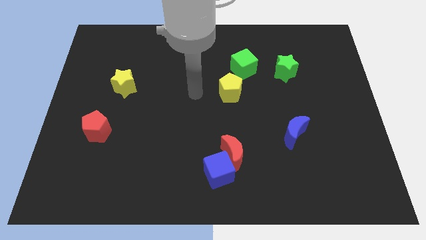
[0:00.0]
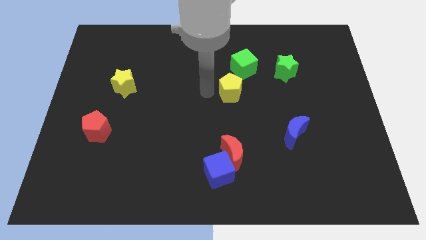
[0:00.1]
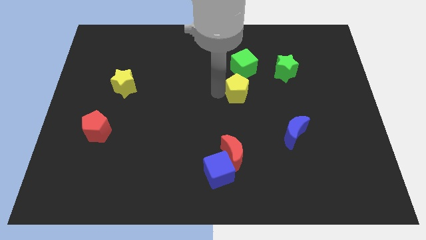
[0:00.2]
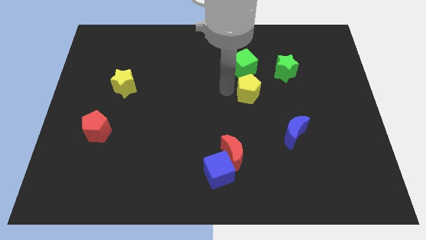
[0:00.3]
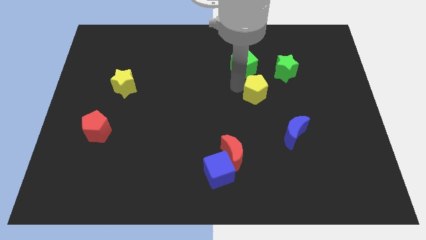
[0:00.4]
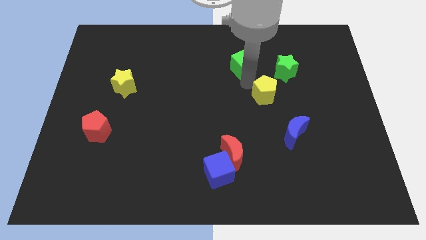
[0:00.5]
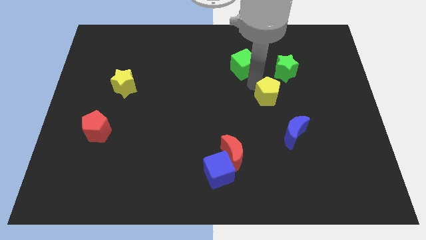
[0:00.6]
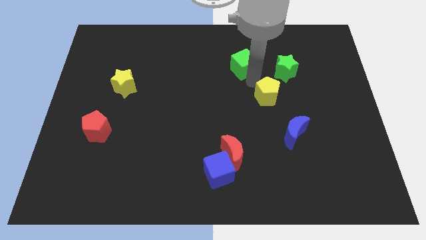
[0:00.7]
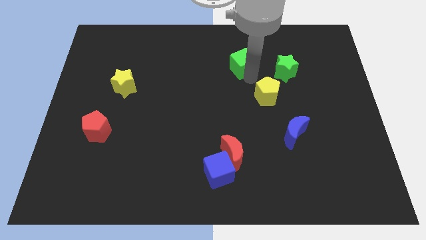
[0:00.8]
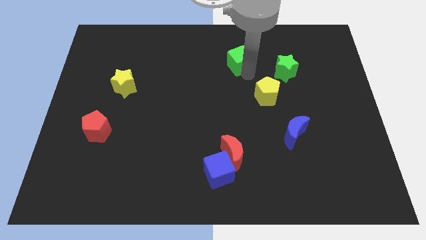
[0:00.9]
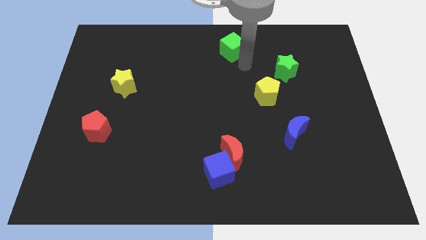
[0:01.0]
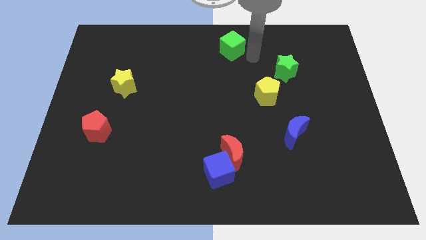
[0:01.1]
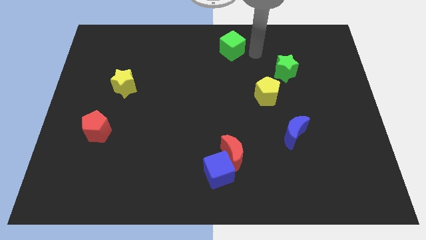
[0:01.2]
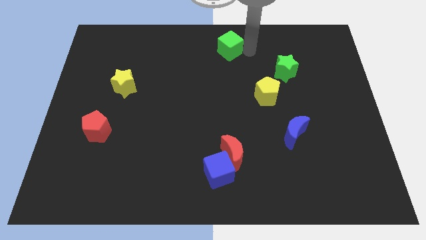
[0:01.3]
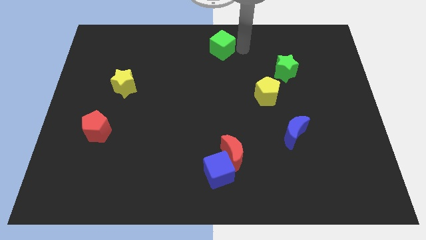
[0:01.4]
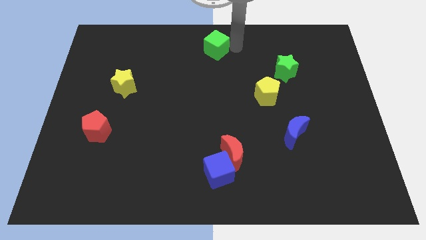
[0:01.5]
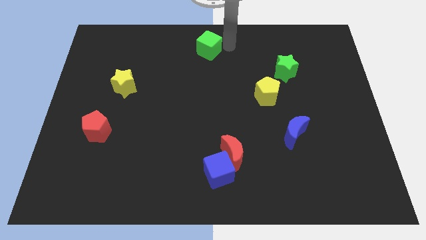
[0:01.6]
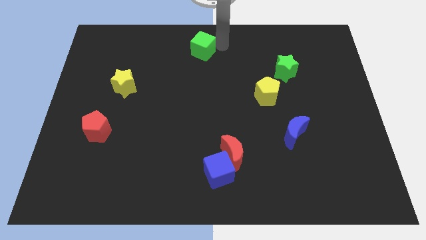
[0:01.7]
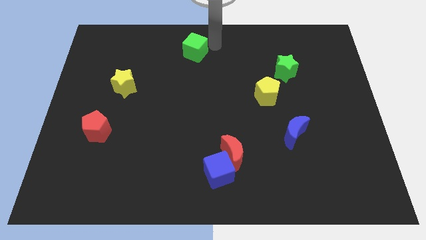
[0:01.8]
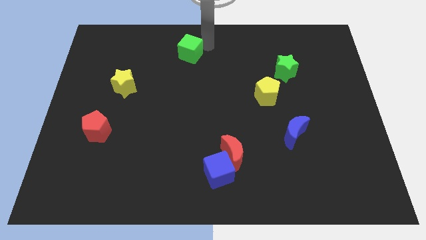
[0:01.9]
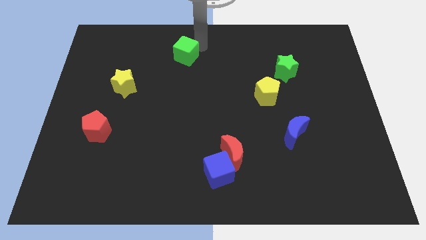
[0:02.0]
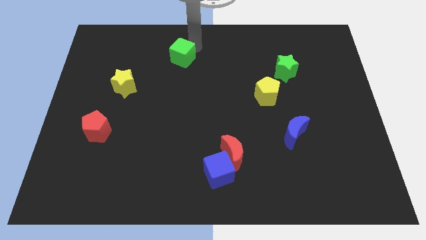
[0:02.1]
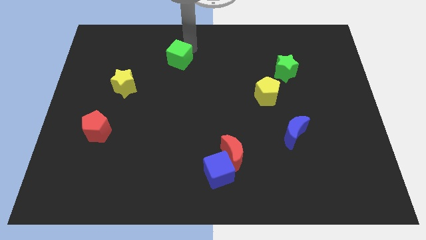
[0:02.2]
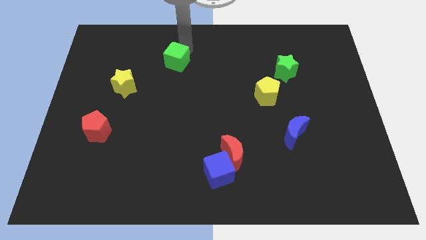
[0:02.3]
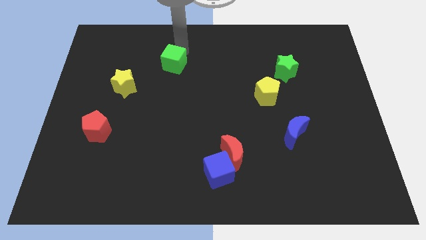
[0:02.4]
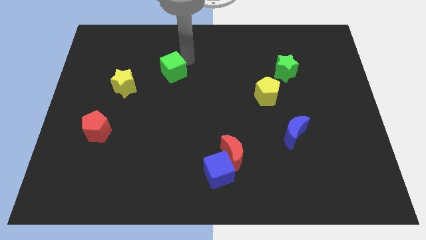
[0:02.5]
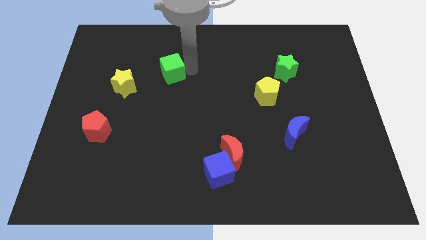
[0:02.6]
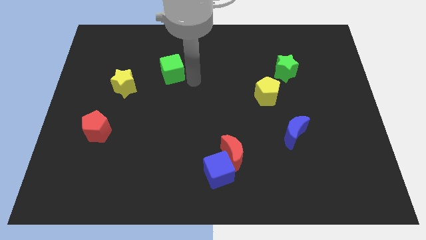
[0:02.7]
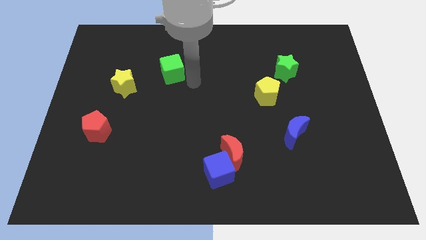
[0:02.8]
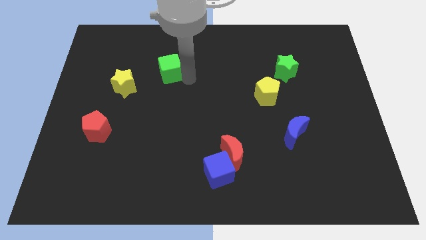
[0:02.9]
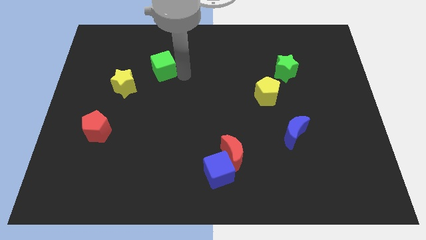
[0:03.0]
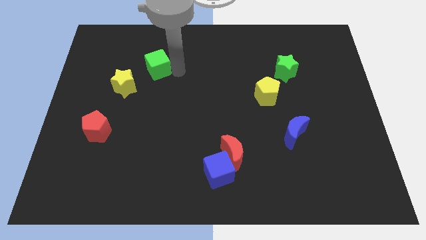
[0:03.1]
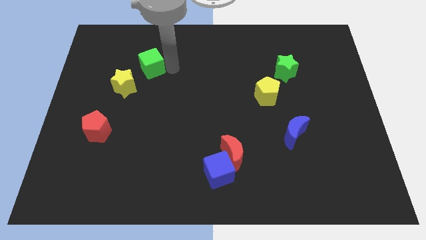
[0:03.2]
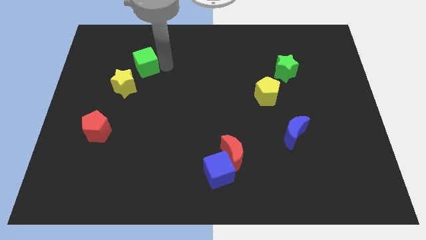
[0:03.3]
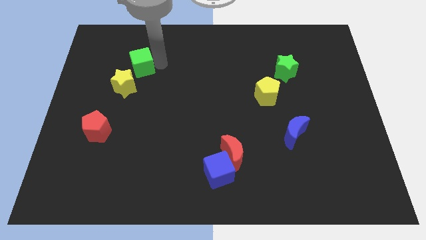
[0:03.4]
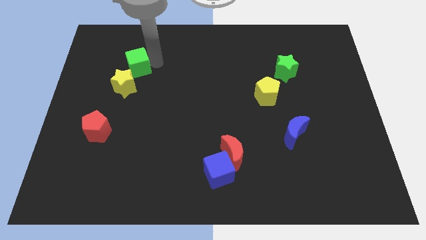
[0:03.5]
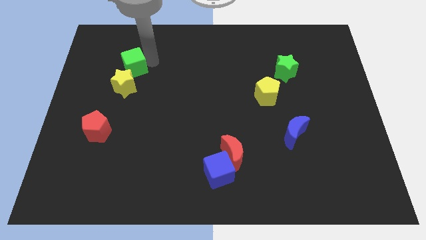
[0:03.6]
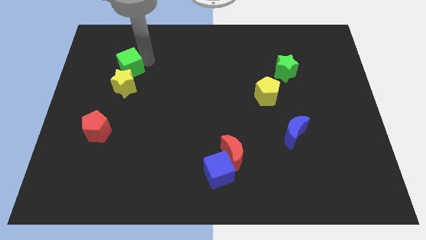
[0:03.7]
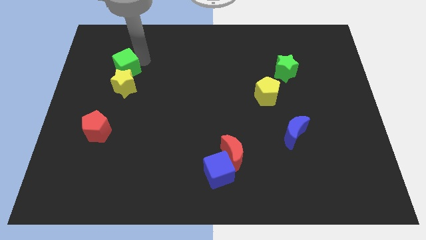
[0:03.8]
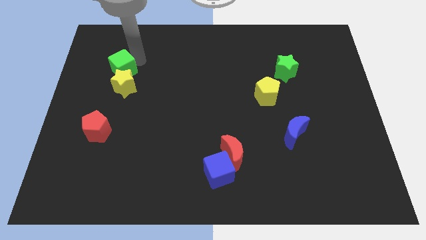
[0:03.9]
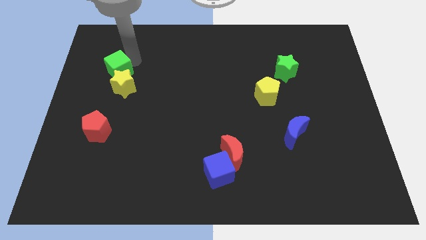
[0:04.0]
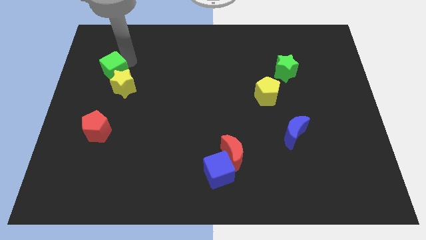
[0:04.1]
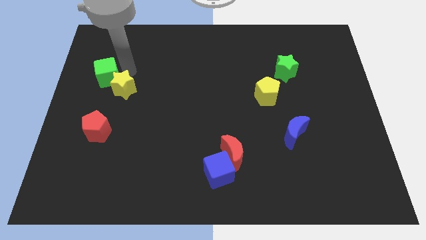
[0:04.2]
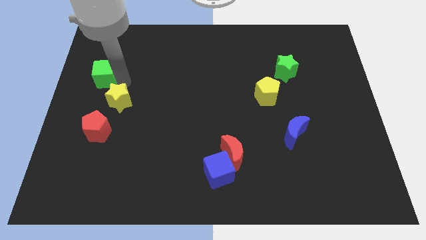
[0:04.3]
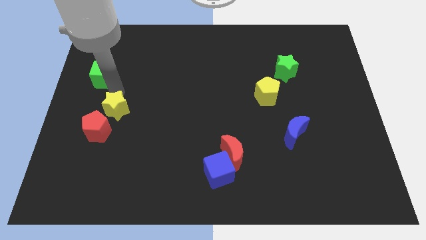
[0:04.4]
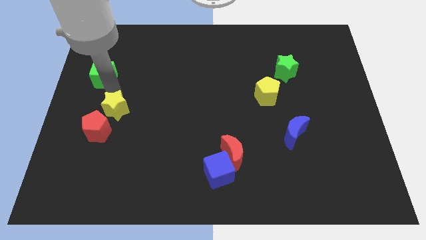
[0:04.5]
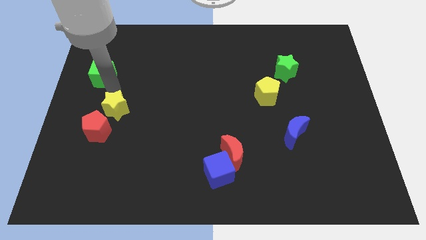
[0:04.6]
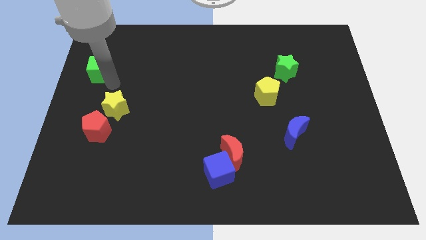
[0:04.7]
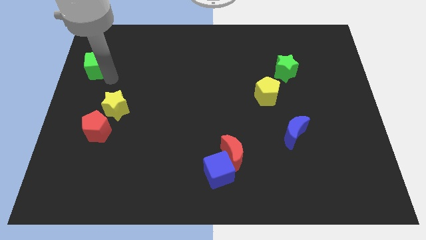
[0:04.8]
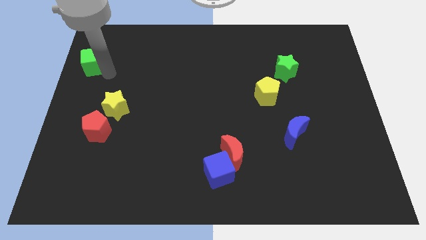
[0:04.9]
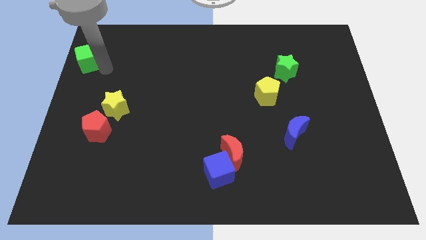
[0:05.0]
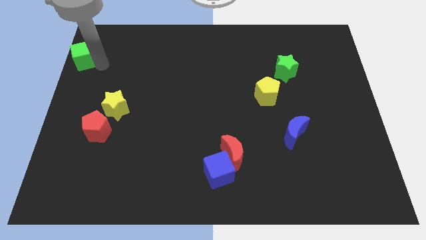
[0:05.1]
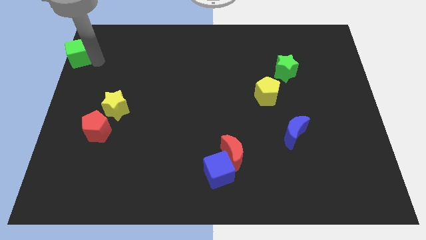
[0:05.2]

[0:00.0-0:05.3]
put the green cube to the top left corner
